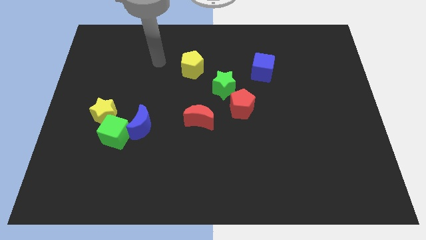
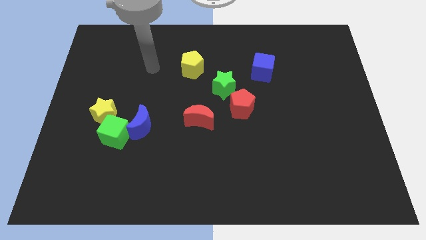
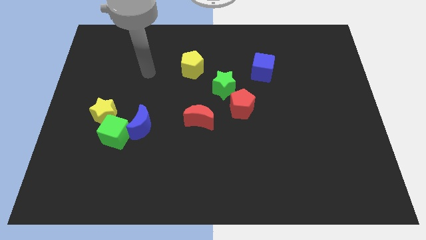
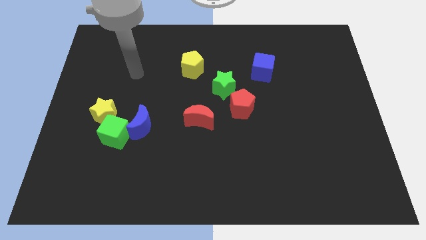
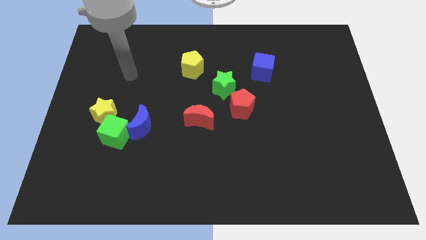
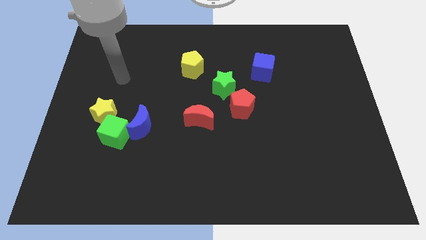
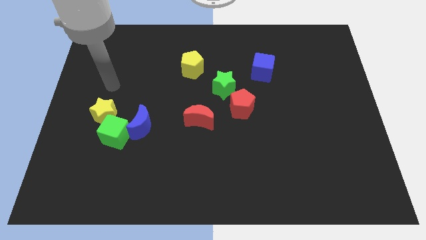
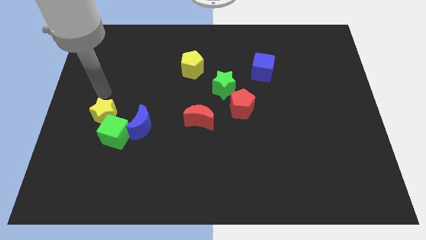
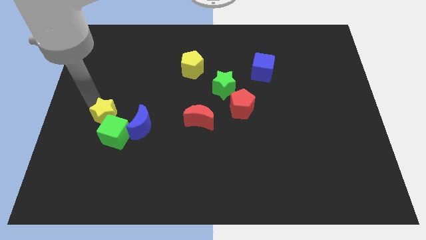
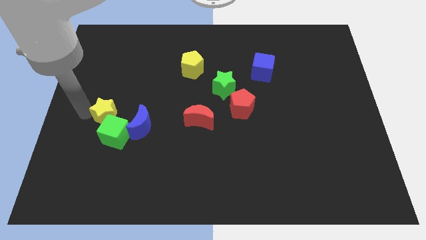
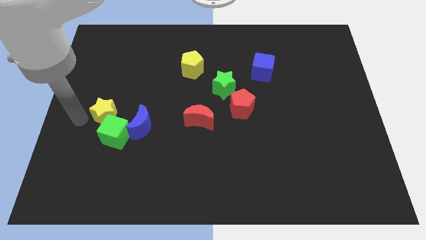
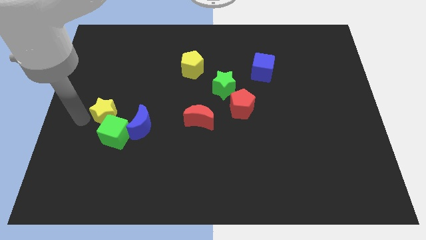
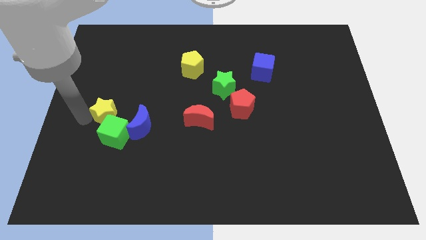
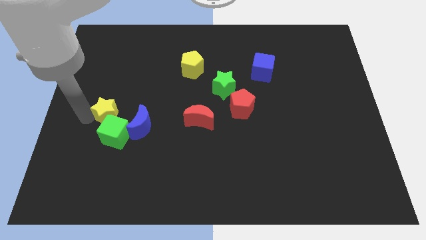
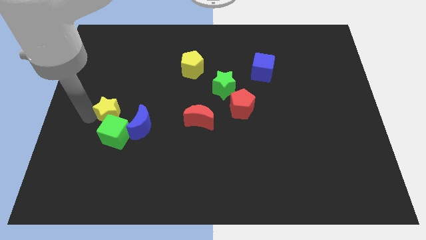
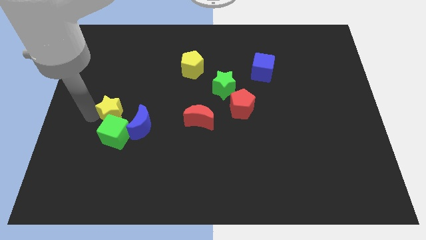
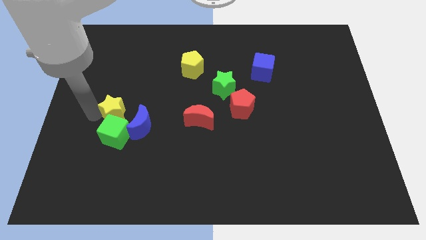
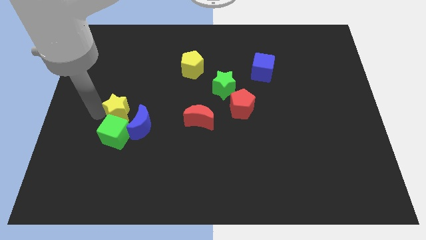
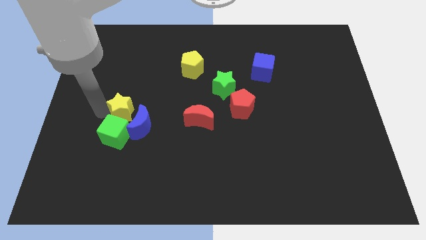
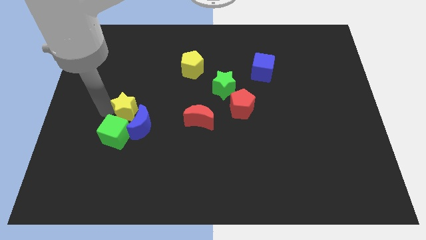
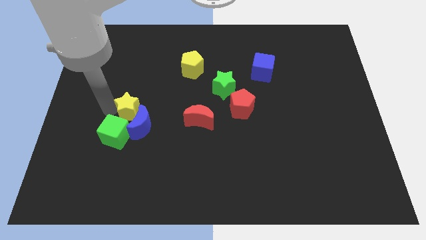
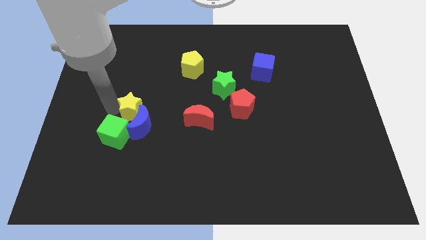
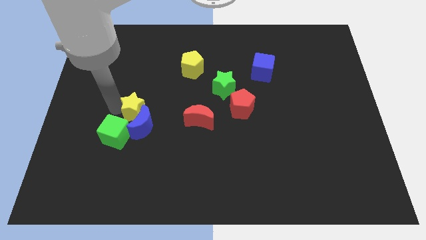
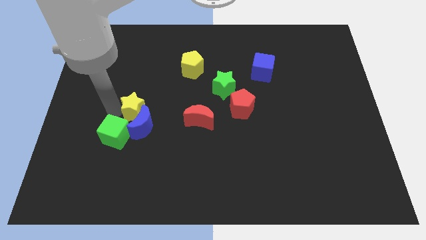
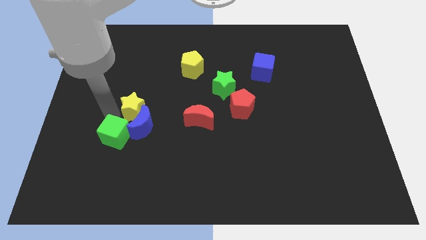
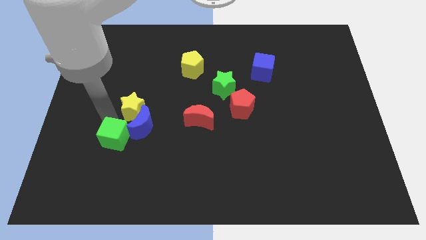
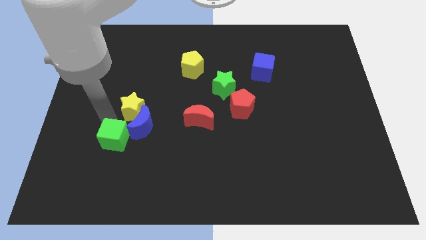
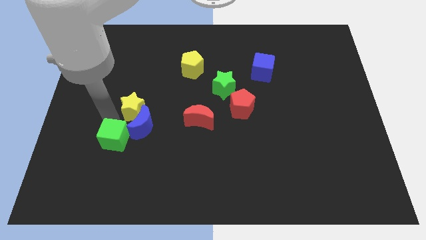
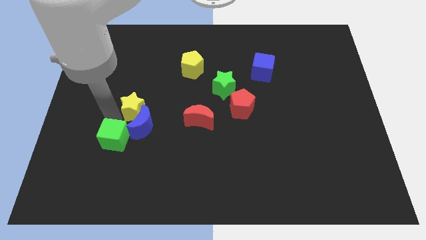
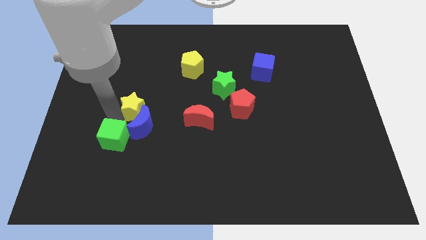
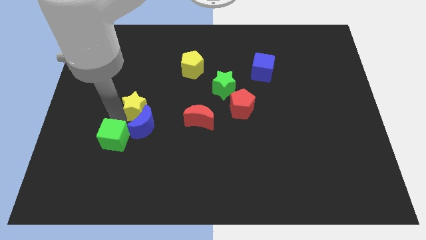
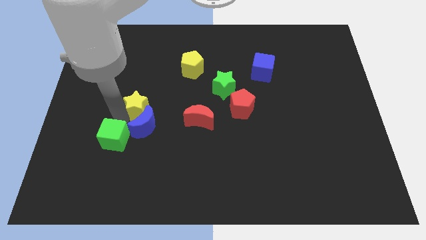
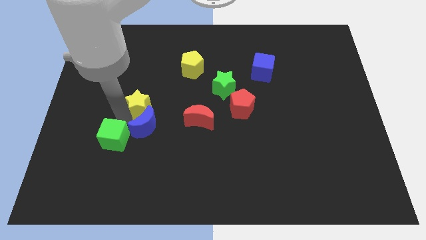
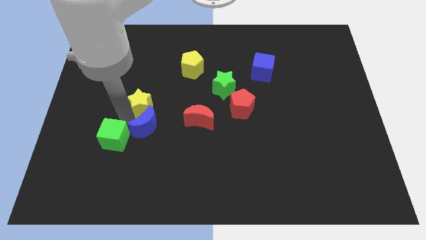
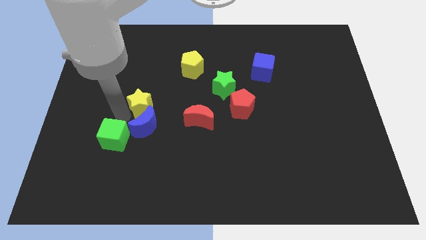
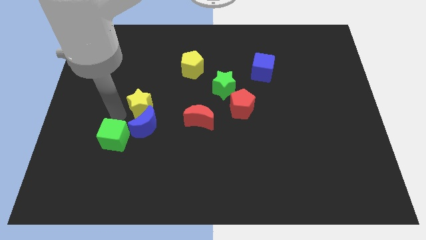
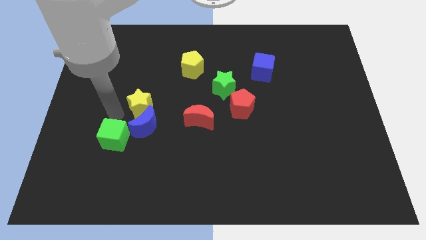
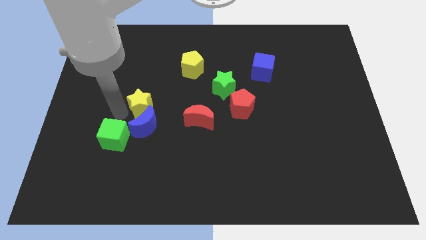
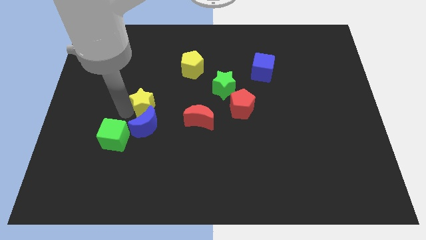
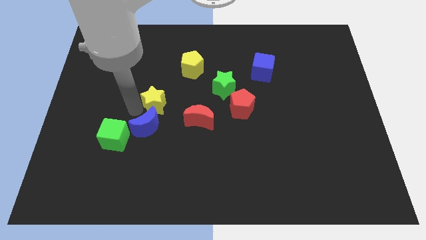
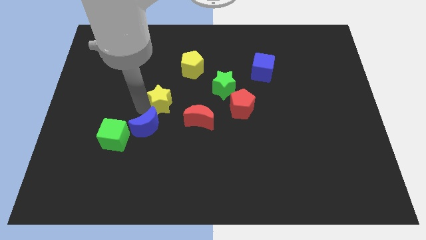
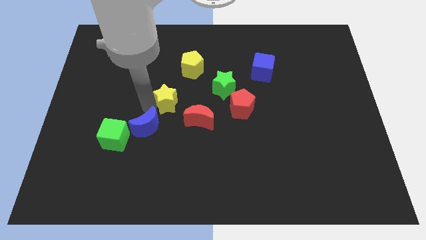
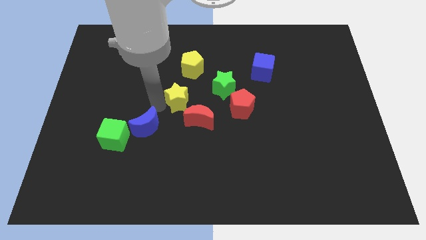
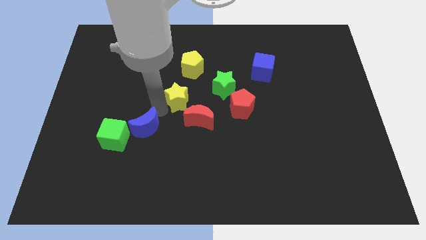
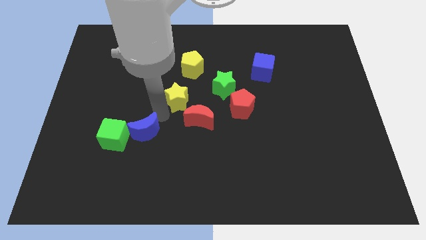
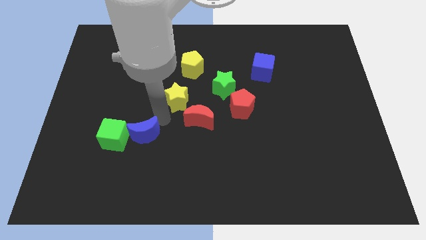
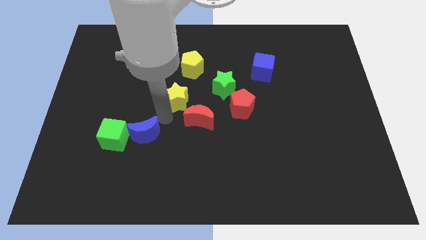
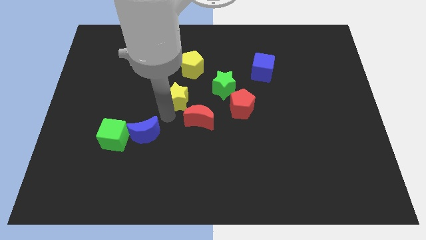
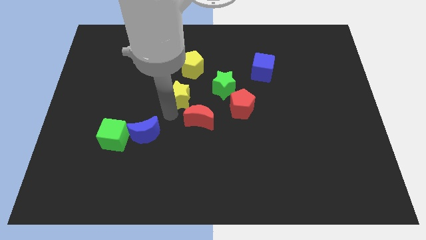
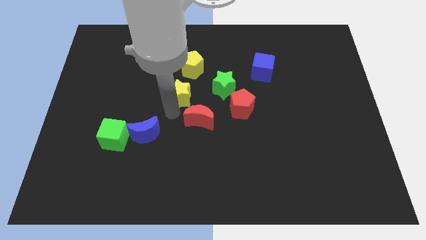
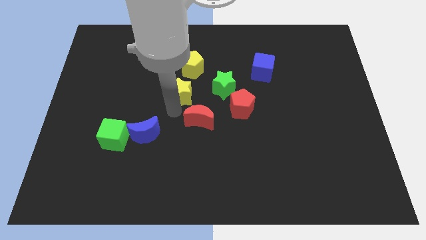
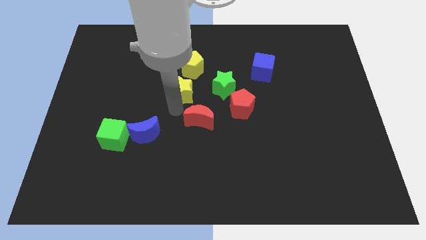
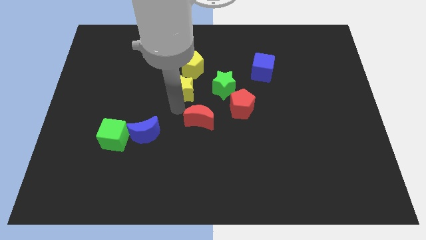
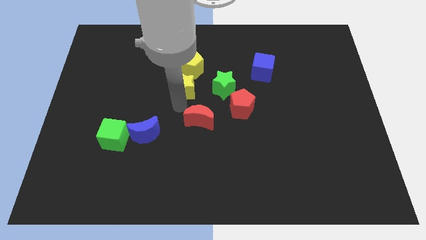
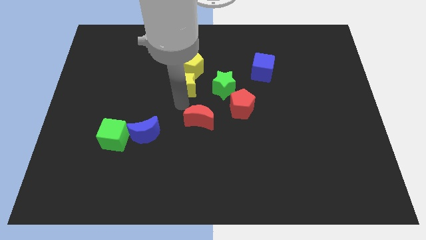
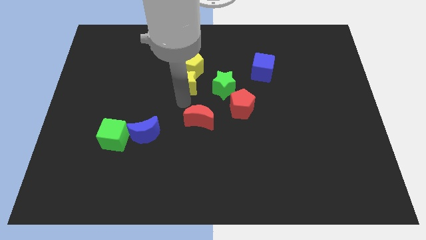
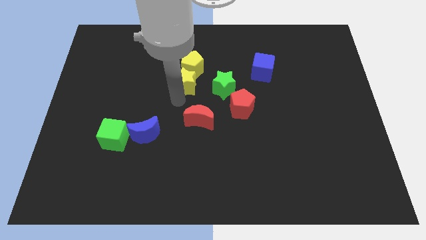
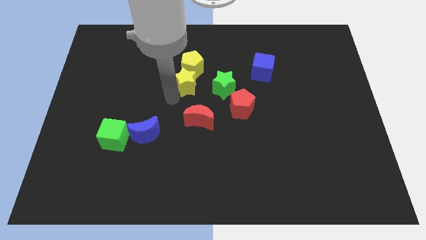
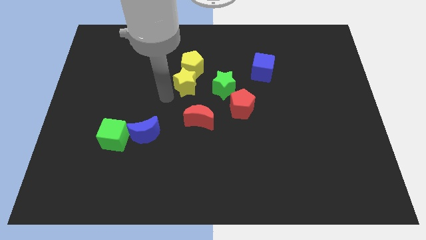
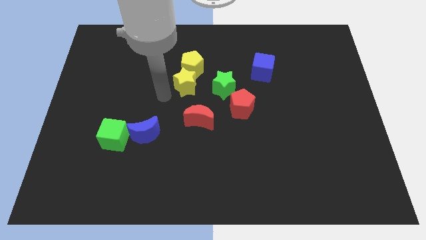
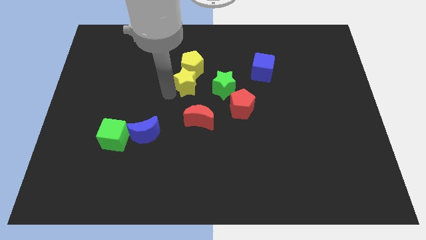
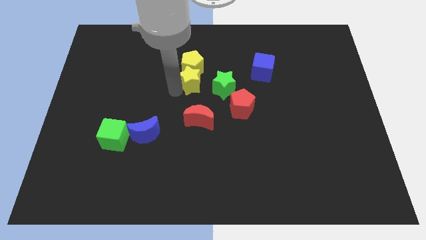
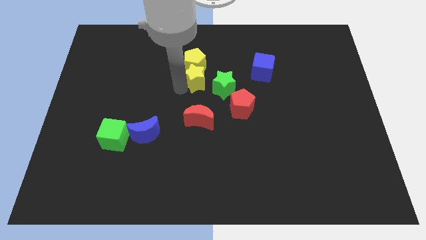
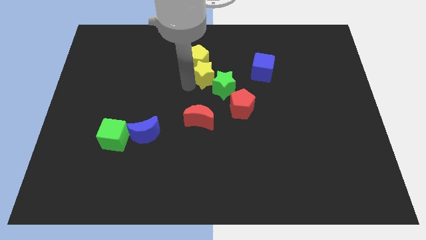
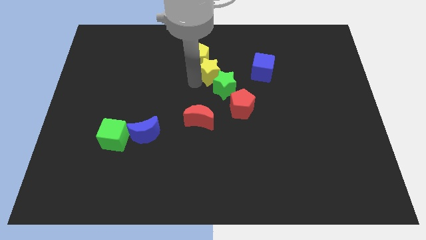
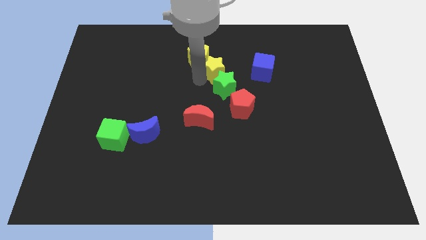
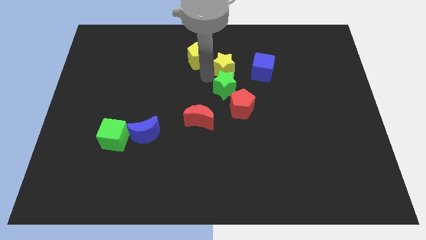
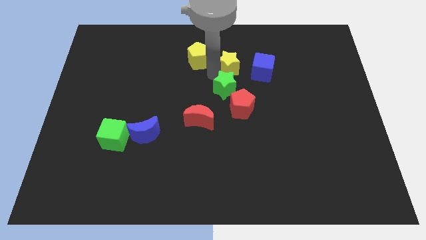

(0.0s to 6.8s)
move the yellow star to the top left of the blue cube

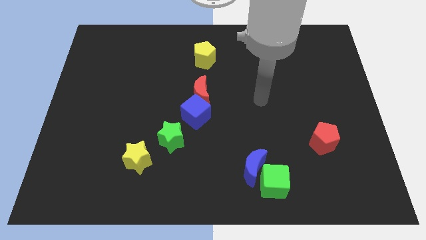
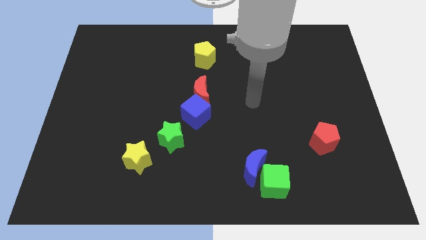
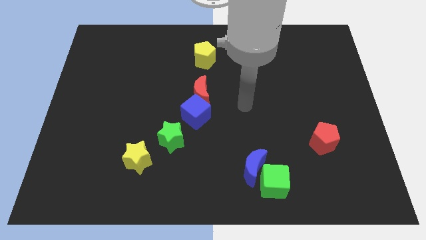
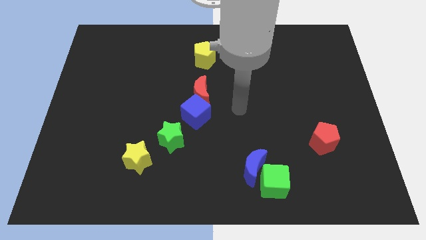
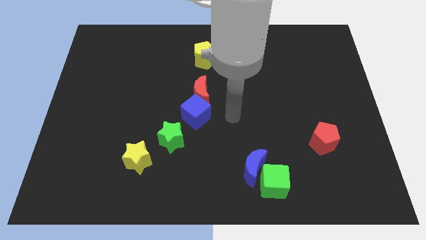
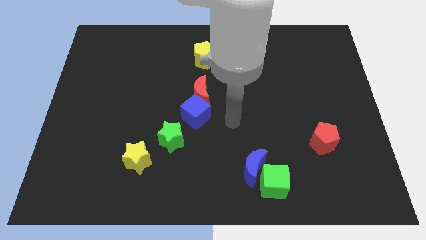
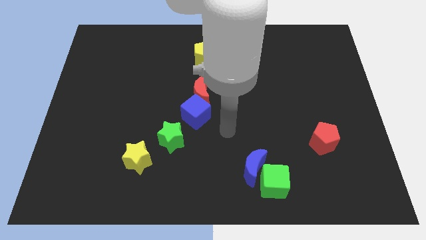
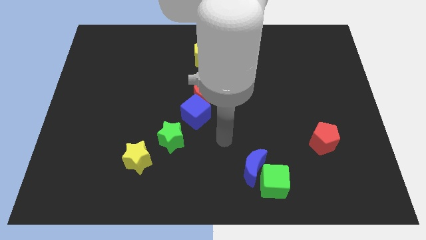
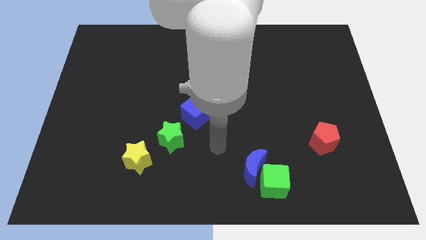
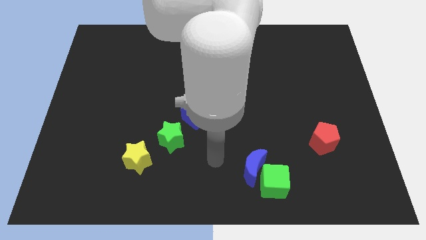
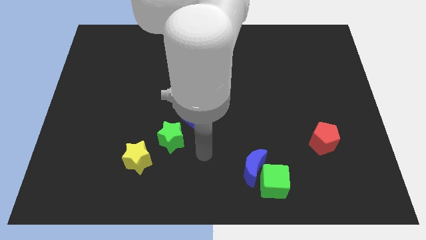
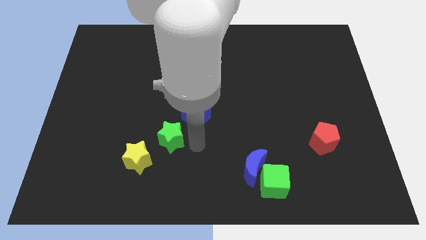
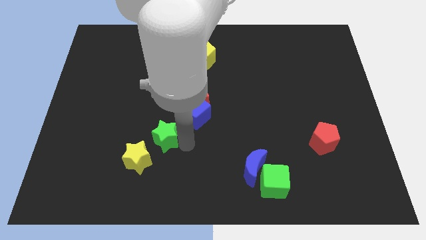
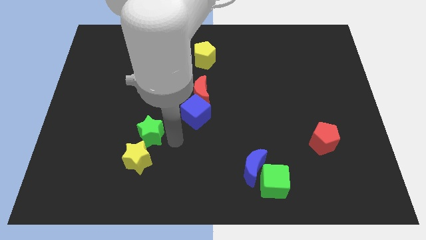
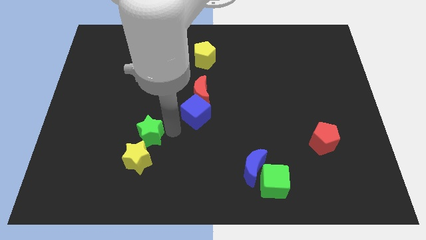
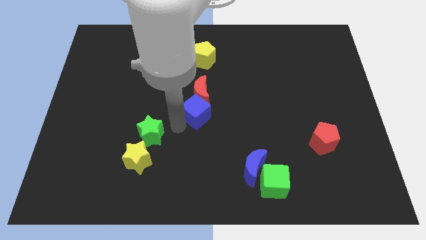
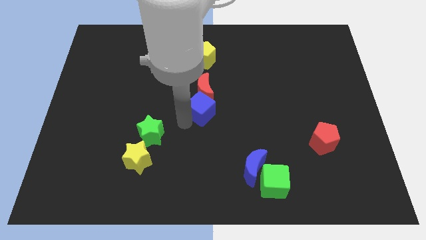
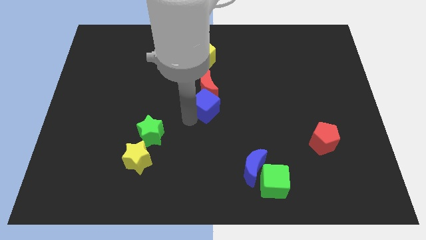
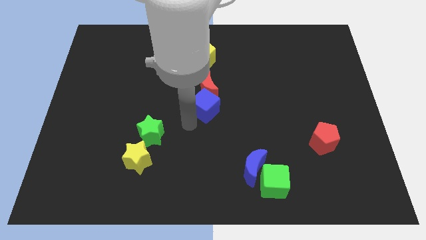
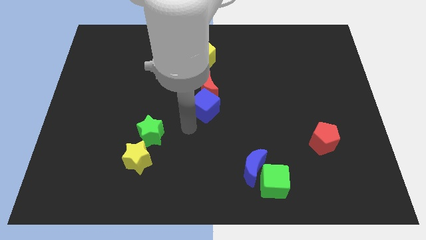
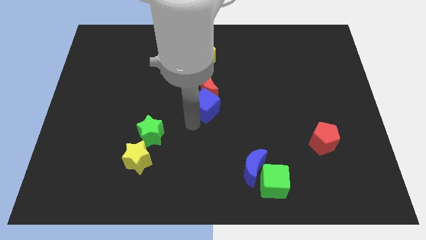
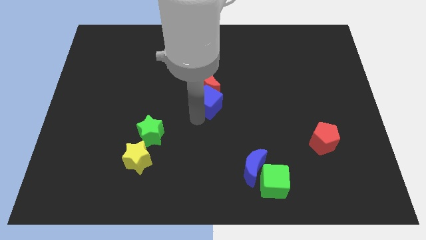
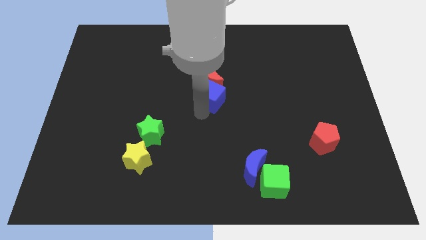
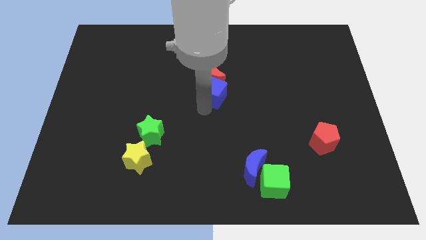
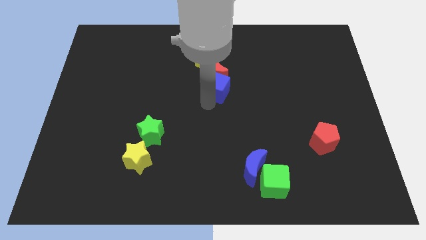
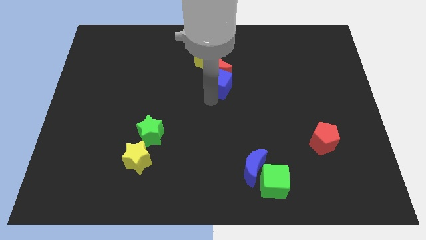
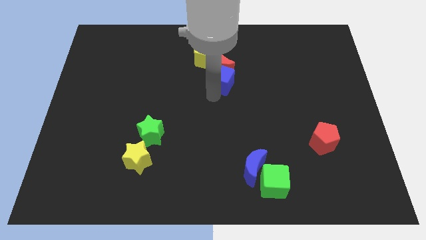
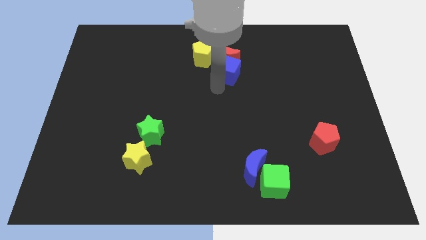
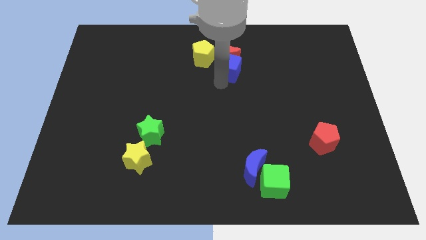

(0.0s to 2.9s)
slide the blue cube to the right of the yellow pentagon
